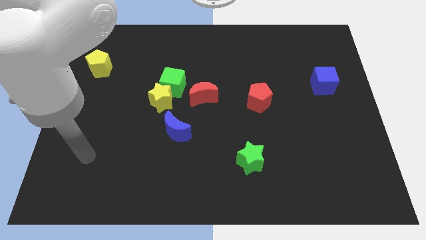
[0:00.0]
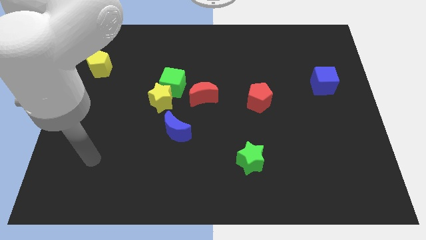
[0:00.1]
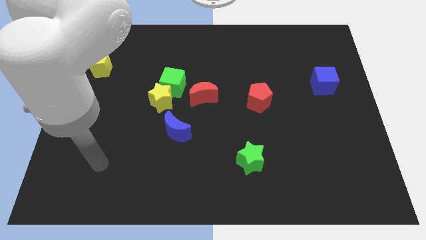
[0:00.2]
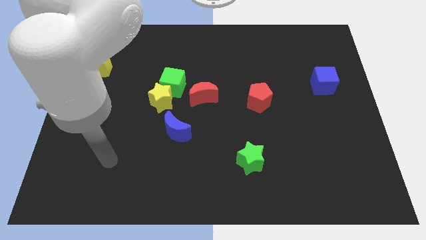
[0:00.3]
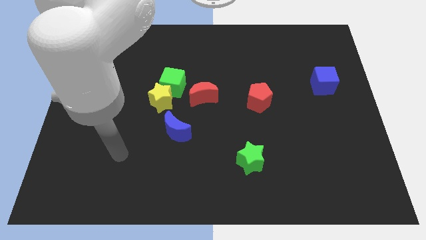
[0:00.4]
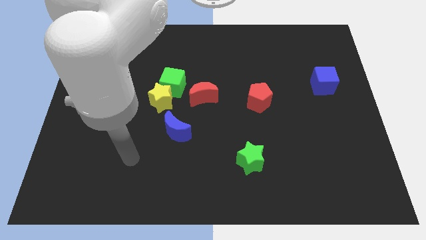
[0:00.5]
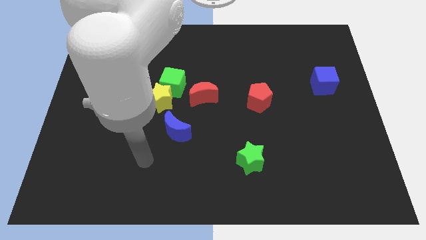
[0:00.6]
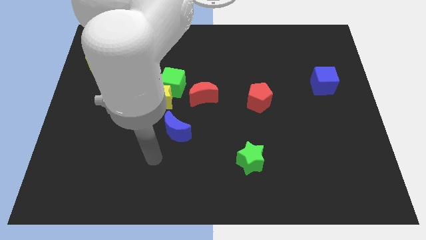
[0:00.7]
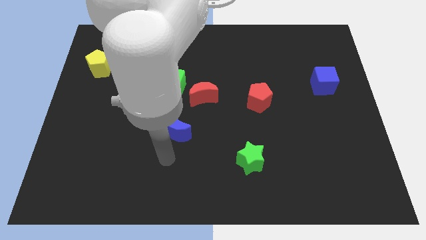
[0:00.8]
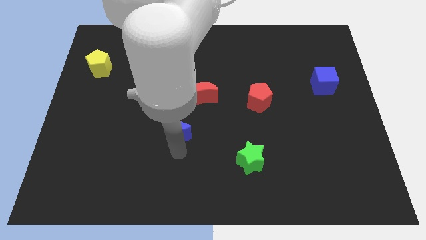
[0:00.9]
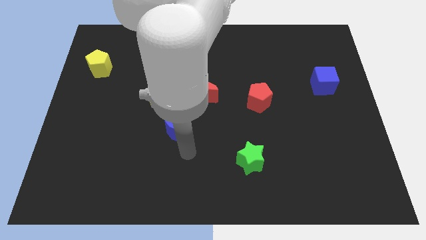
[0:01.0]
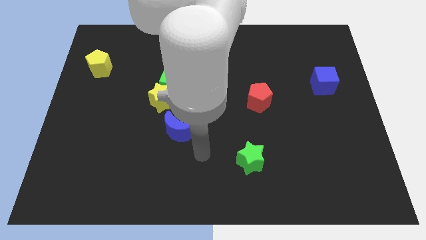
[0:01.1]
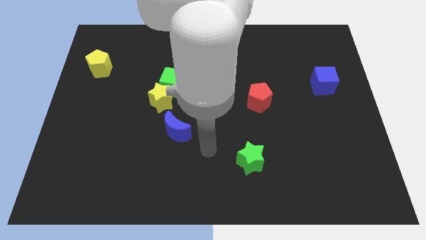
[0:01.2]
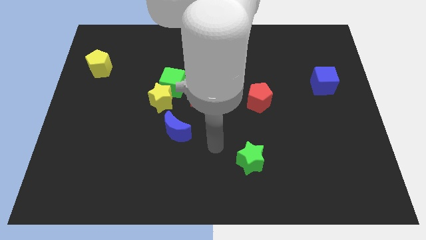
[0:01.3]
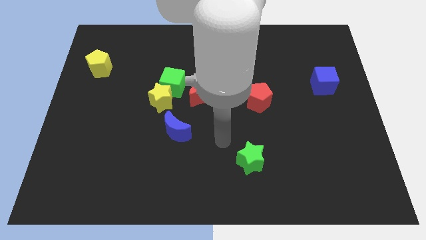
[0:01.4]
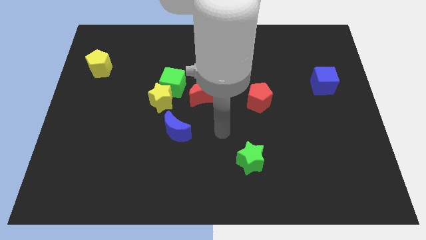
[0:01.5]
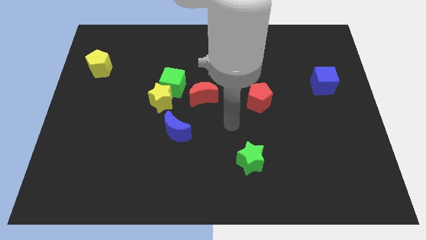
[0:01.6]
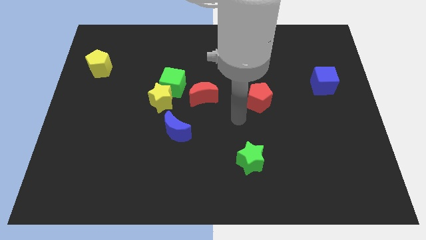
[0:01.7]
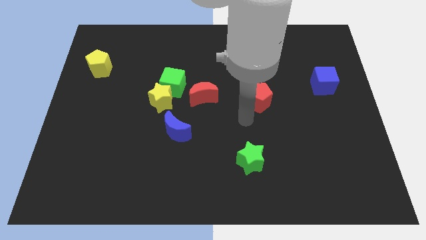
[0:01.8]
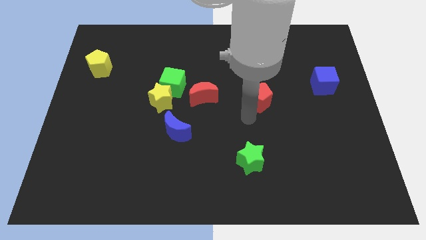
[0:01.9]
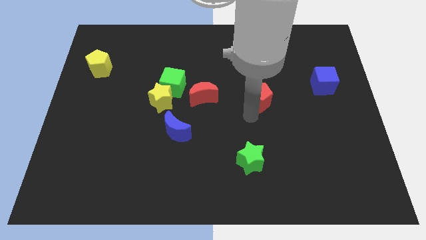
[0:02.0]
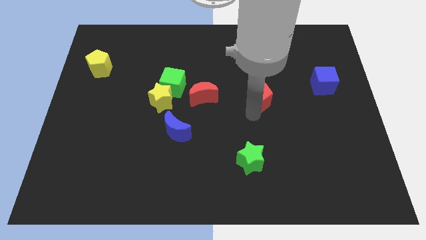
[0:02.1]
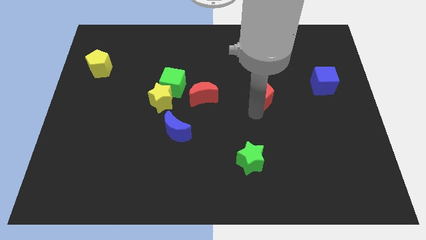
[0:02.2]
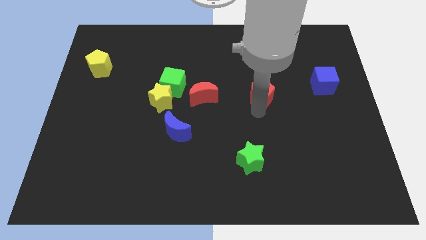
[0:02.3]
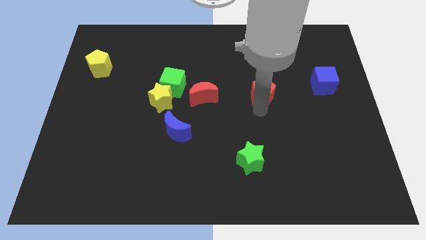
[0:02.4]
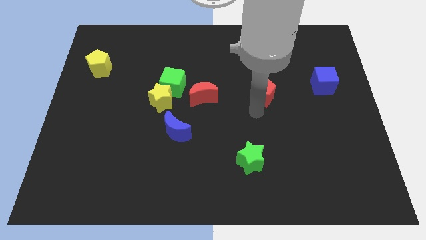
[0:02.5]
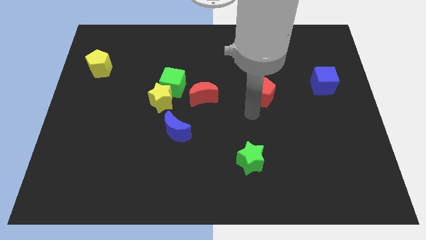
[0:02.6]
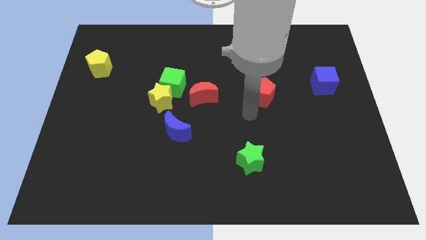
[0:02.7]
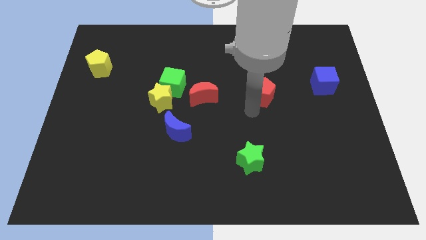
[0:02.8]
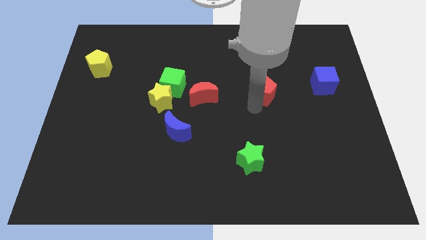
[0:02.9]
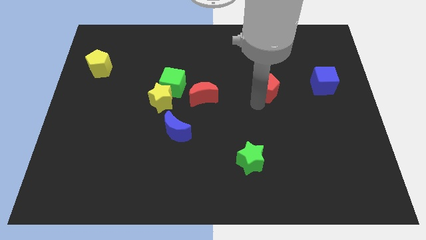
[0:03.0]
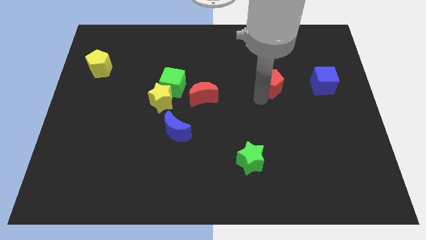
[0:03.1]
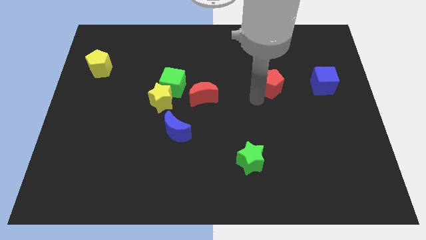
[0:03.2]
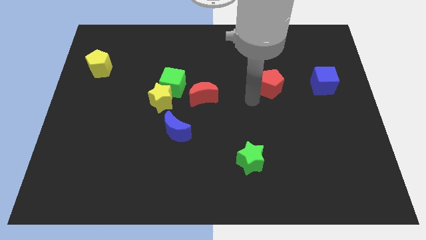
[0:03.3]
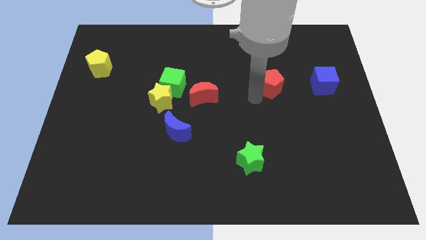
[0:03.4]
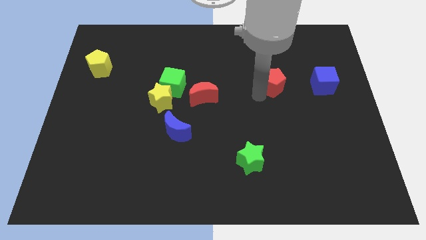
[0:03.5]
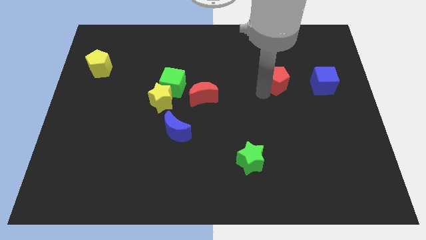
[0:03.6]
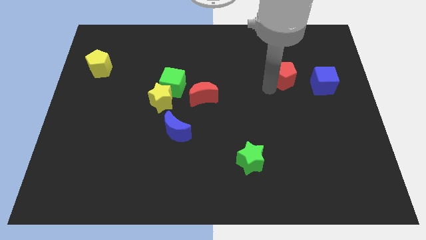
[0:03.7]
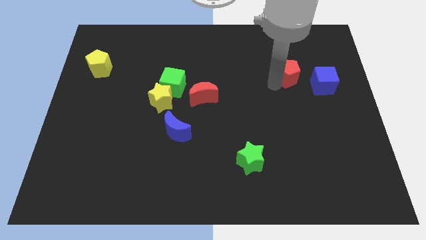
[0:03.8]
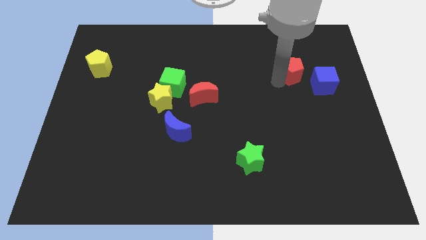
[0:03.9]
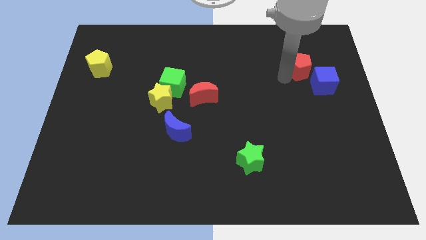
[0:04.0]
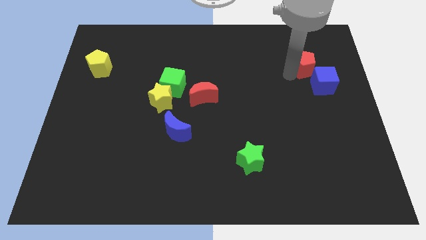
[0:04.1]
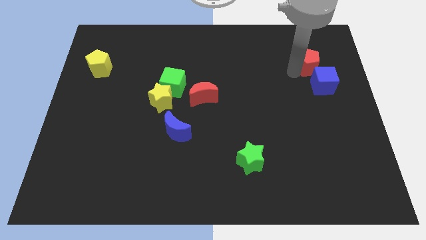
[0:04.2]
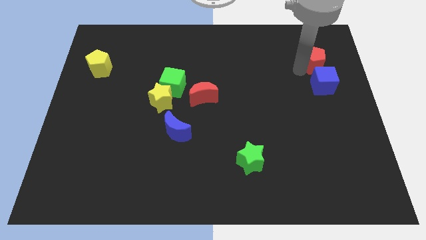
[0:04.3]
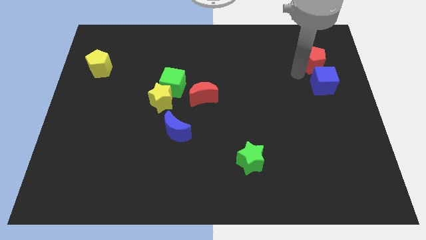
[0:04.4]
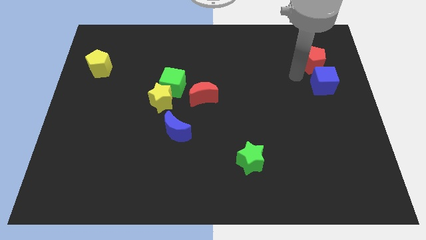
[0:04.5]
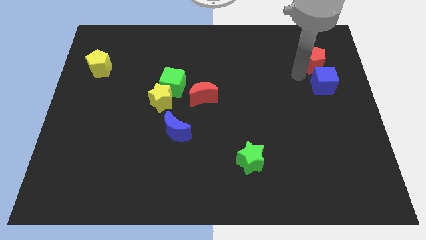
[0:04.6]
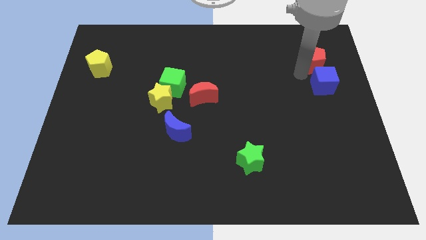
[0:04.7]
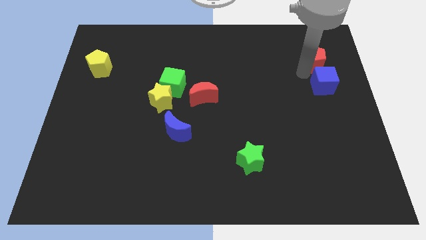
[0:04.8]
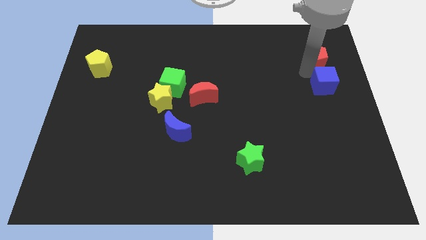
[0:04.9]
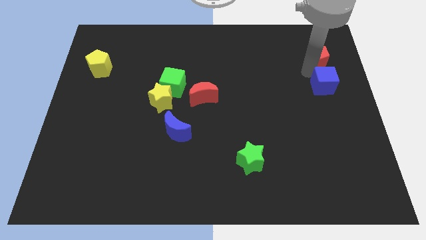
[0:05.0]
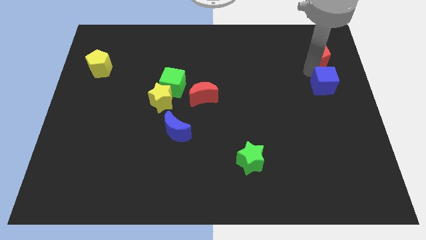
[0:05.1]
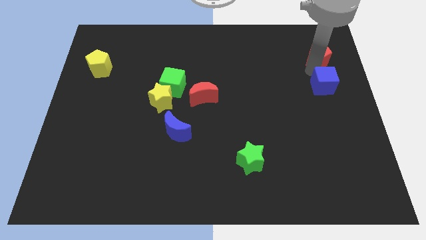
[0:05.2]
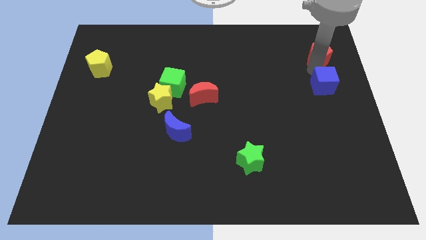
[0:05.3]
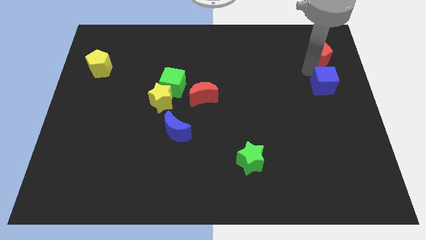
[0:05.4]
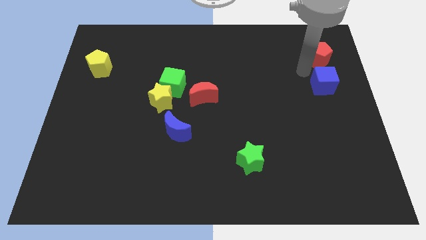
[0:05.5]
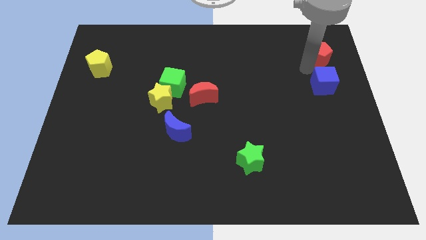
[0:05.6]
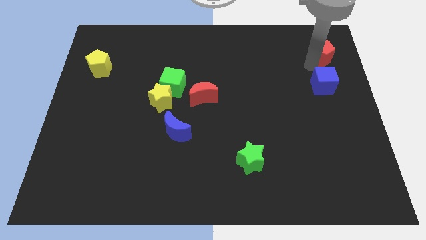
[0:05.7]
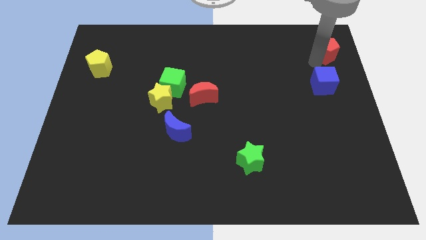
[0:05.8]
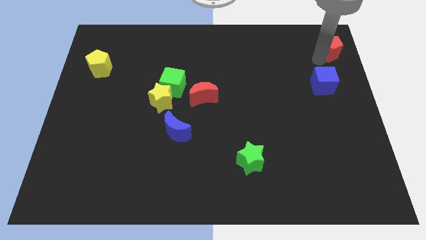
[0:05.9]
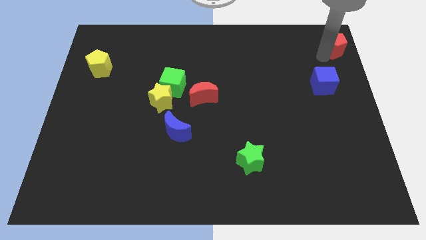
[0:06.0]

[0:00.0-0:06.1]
put the red pentagon to the top right

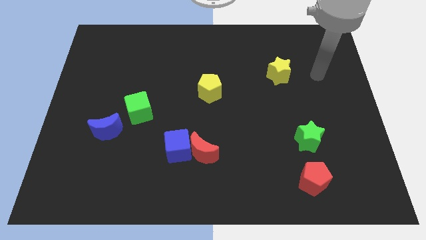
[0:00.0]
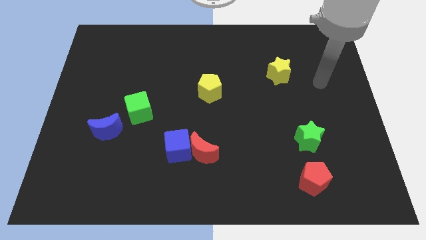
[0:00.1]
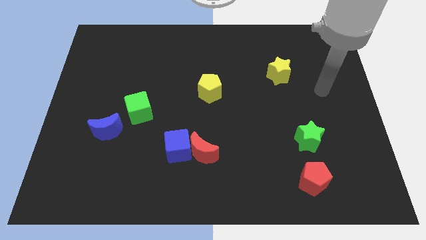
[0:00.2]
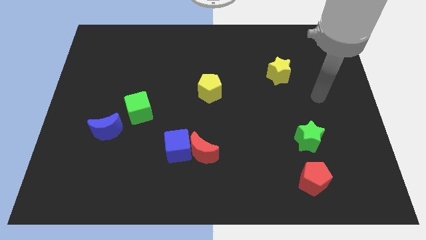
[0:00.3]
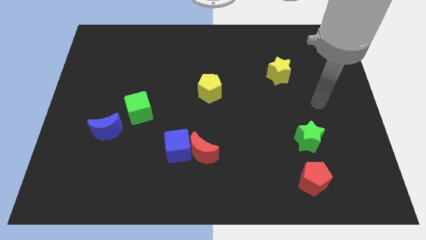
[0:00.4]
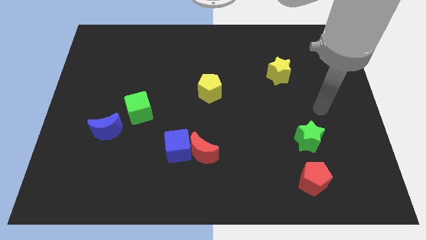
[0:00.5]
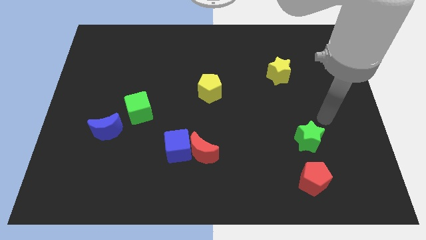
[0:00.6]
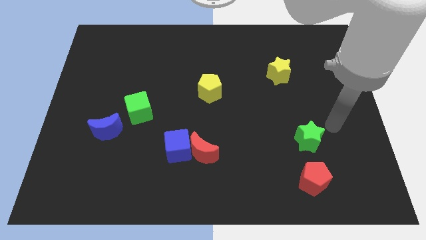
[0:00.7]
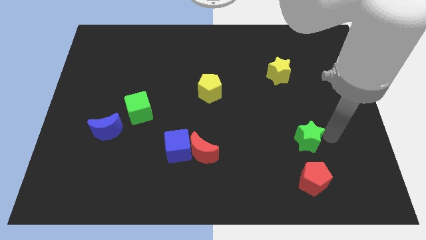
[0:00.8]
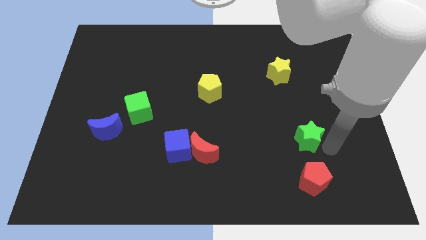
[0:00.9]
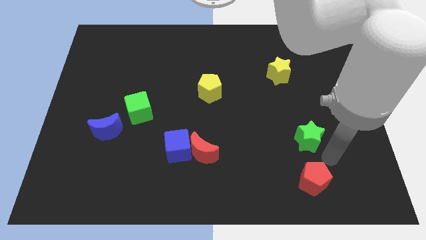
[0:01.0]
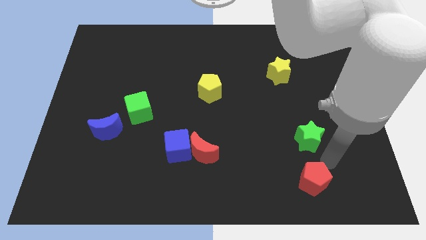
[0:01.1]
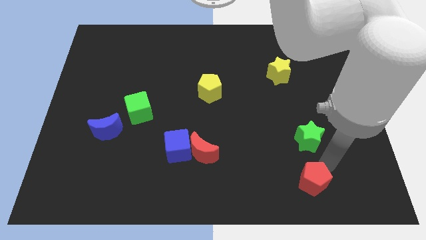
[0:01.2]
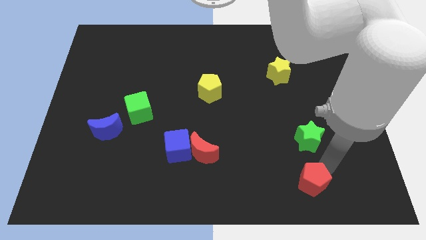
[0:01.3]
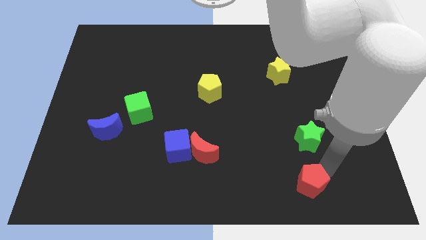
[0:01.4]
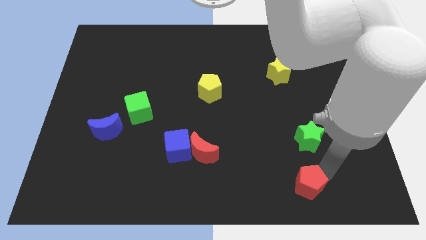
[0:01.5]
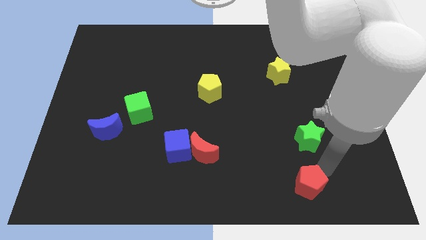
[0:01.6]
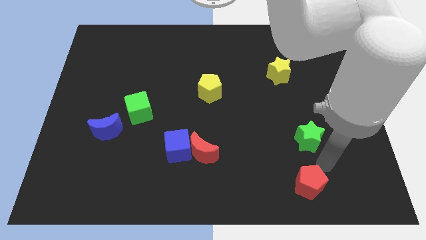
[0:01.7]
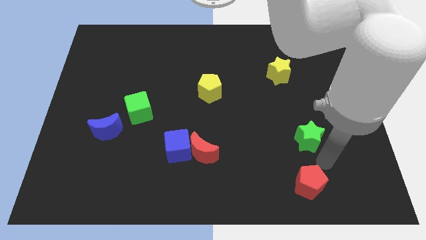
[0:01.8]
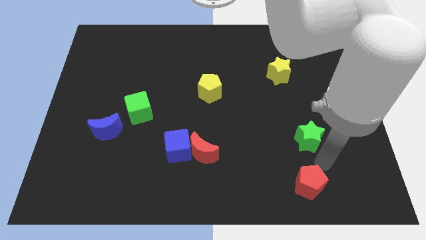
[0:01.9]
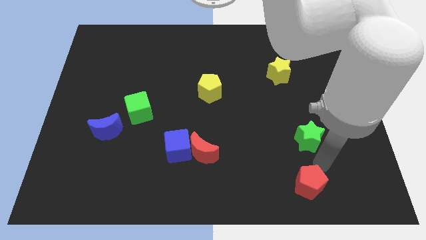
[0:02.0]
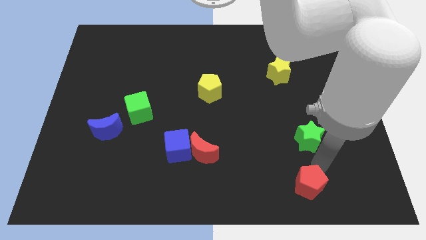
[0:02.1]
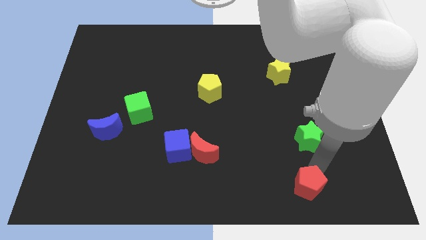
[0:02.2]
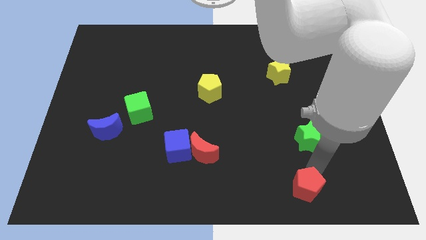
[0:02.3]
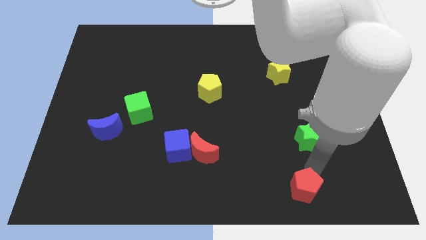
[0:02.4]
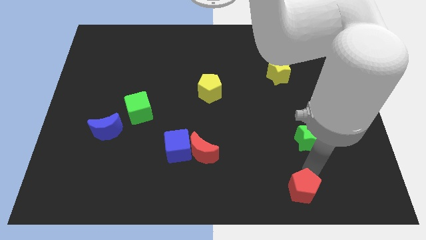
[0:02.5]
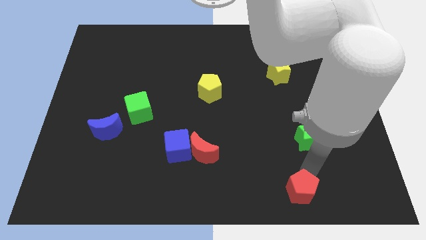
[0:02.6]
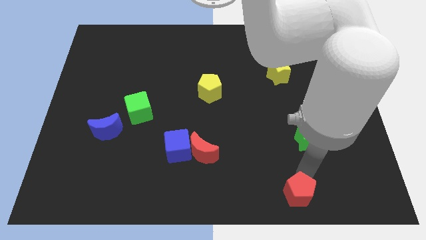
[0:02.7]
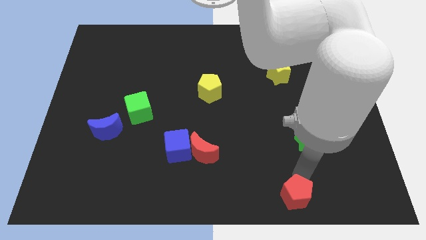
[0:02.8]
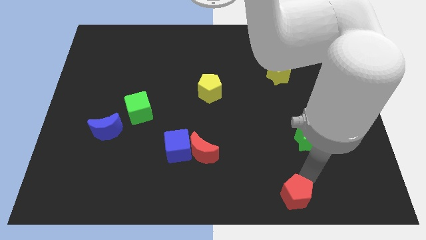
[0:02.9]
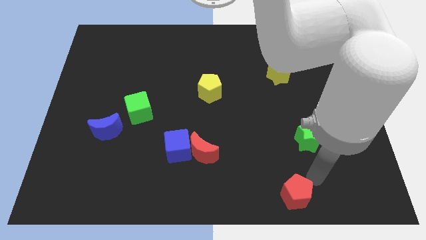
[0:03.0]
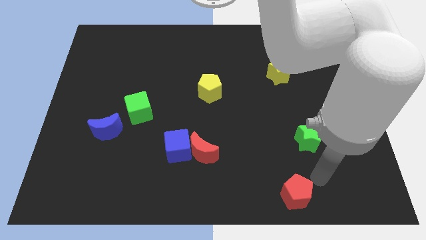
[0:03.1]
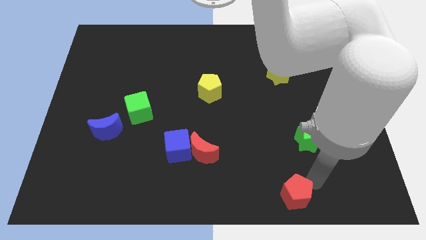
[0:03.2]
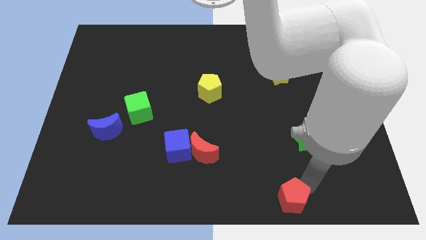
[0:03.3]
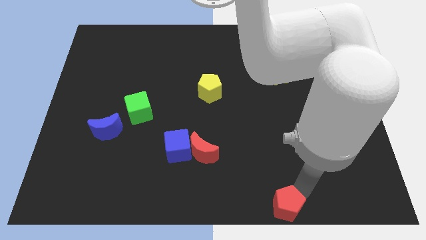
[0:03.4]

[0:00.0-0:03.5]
put the red pentagon to the bottom
